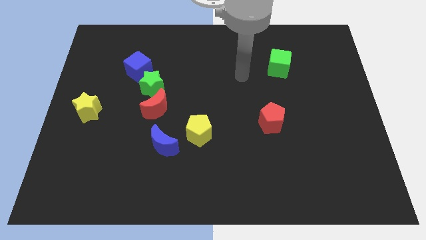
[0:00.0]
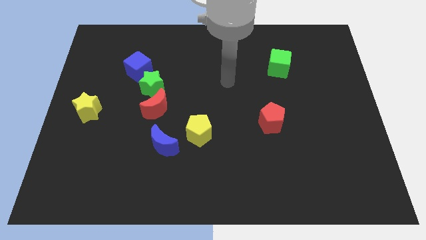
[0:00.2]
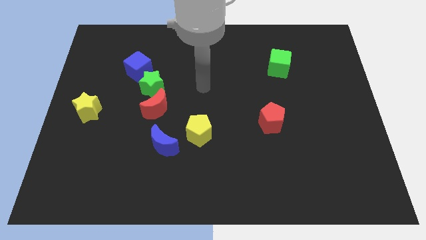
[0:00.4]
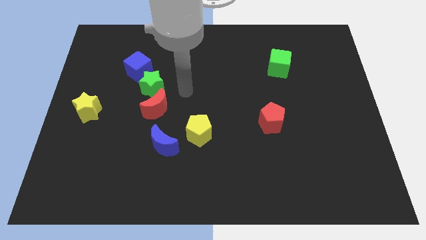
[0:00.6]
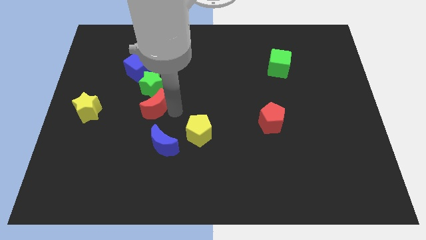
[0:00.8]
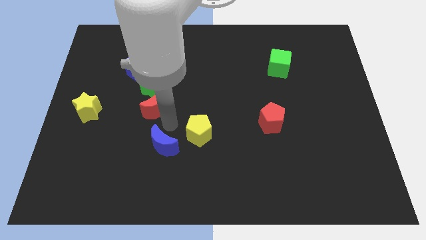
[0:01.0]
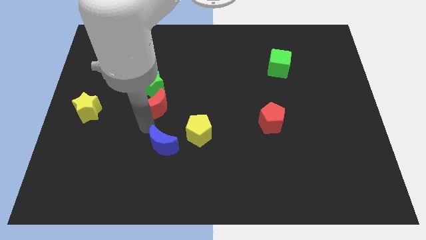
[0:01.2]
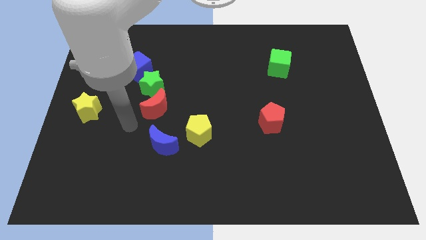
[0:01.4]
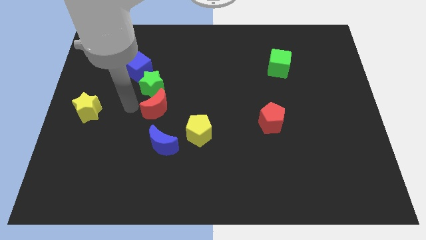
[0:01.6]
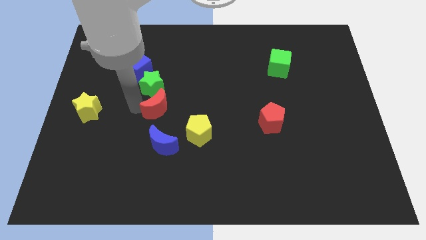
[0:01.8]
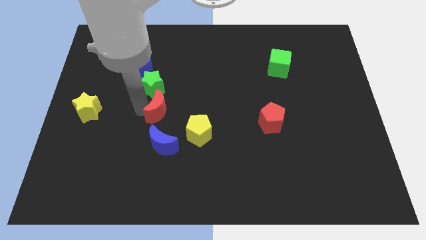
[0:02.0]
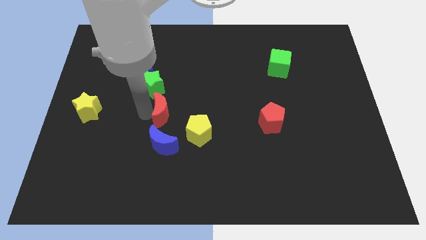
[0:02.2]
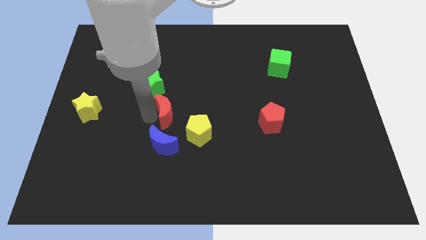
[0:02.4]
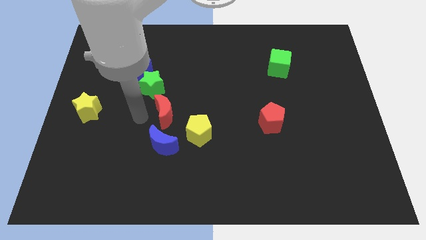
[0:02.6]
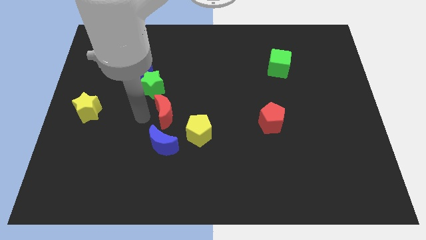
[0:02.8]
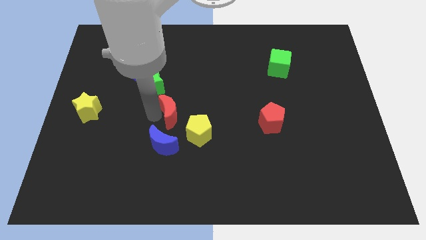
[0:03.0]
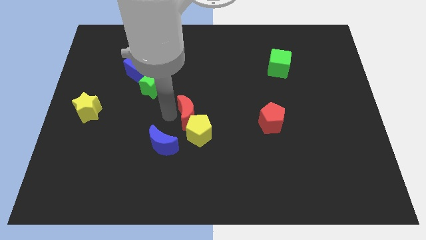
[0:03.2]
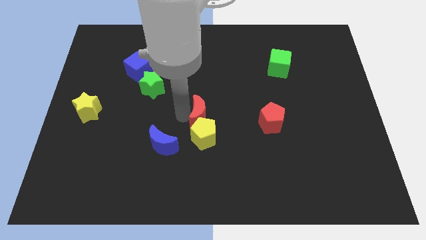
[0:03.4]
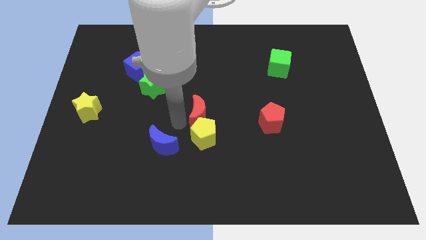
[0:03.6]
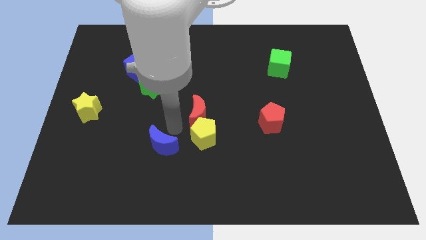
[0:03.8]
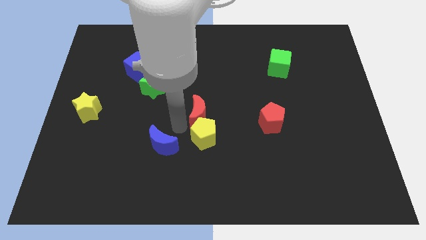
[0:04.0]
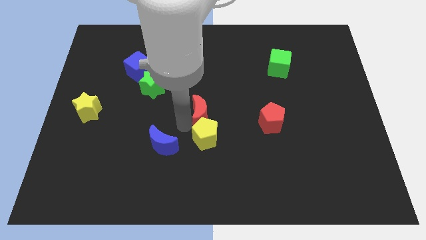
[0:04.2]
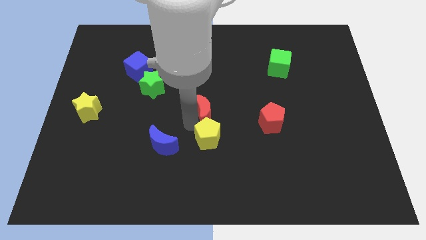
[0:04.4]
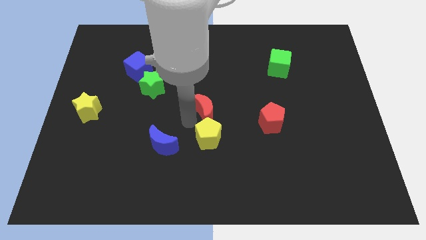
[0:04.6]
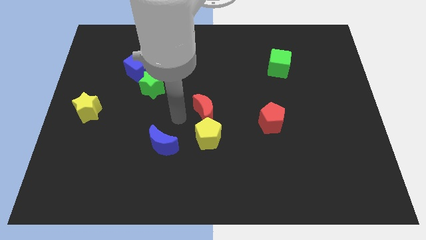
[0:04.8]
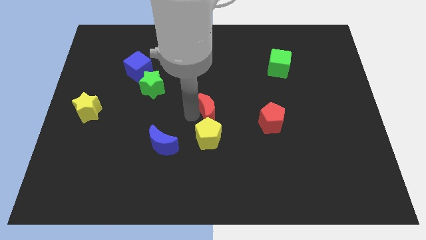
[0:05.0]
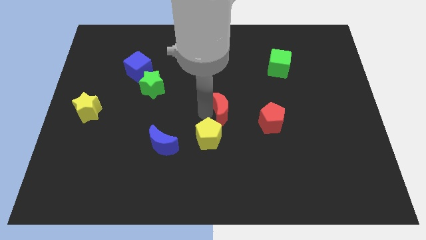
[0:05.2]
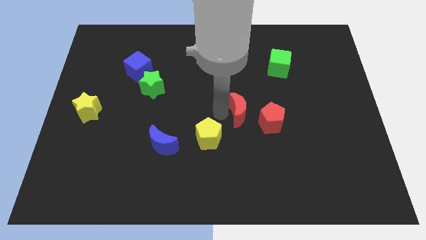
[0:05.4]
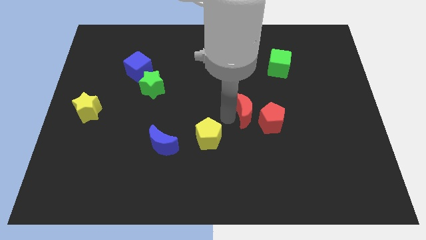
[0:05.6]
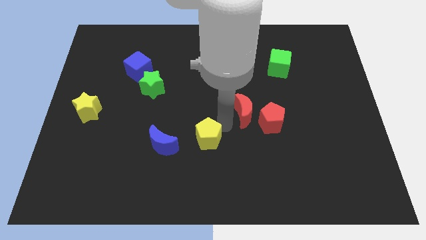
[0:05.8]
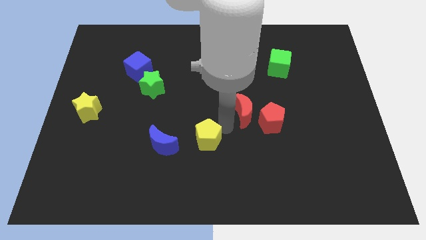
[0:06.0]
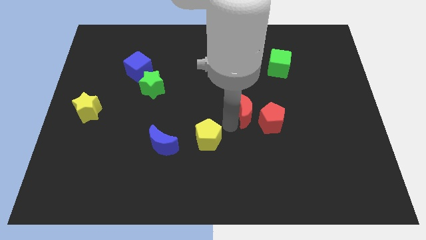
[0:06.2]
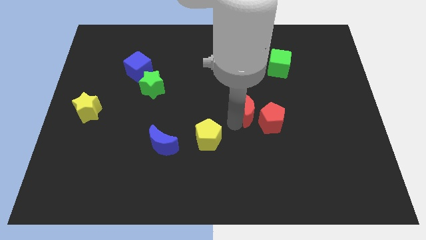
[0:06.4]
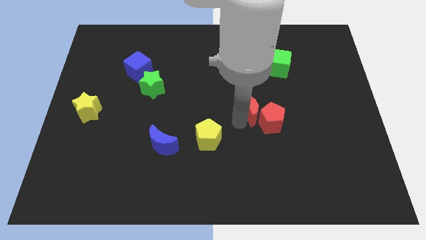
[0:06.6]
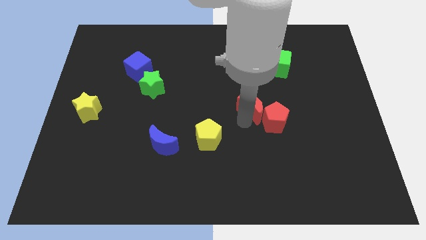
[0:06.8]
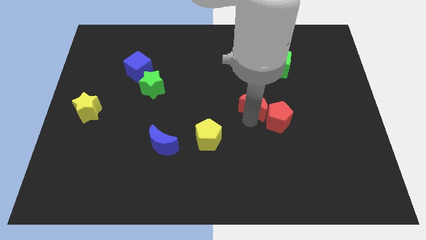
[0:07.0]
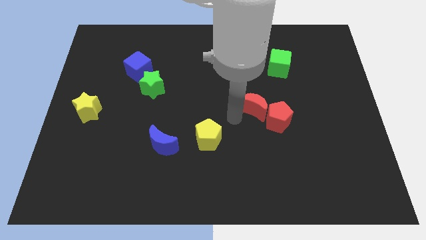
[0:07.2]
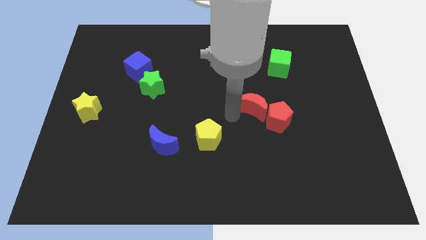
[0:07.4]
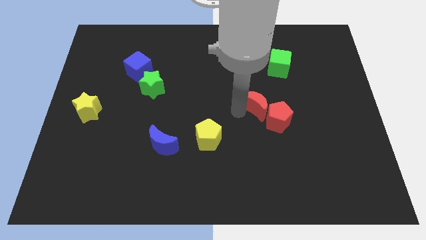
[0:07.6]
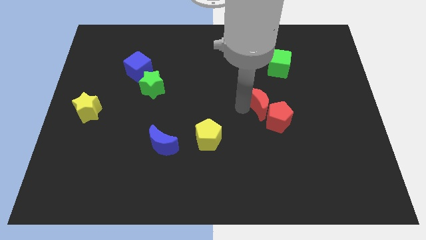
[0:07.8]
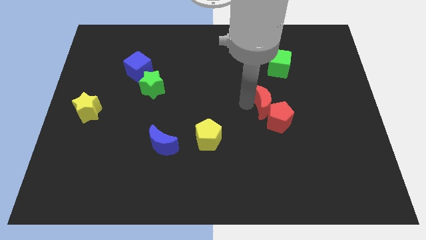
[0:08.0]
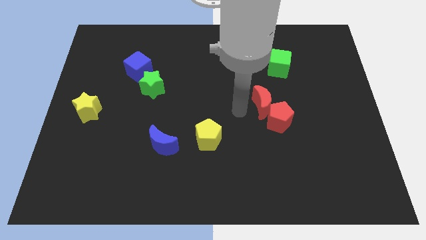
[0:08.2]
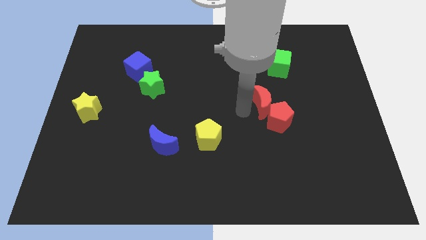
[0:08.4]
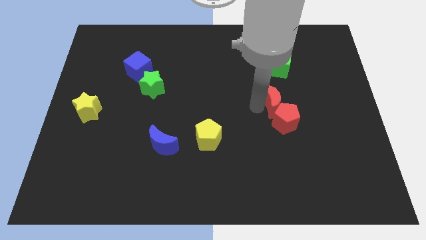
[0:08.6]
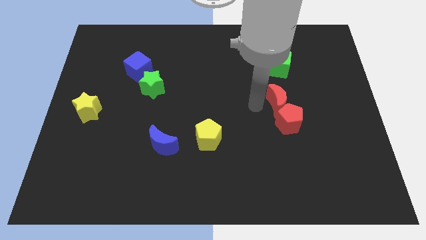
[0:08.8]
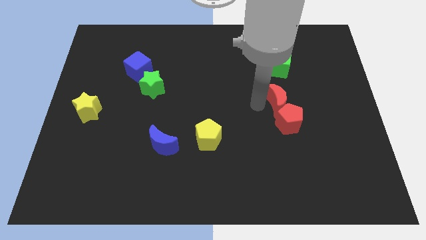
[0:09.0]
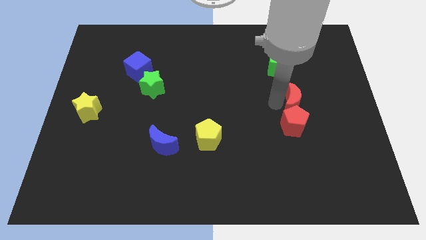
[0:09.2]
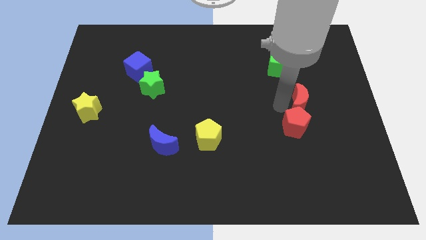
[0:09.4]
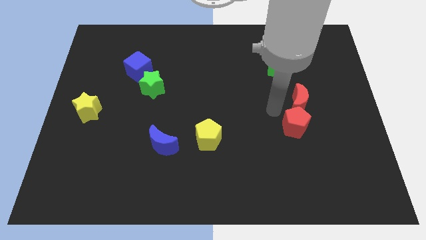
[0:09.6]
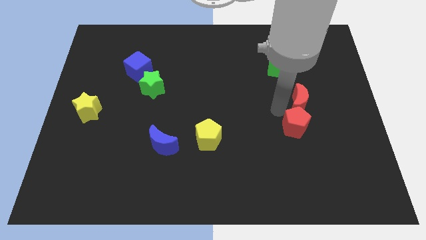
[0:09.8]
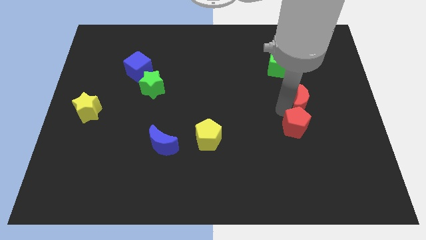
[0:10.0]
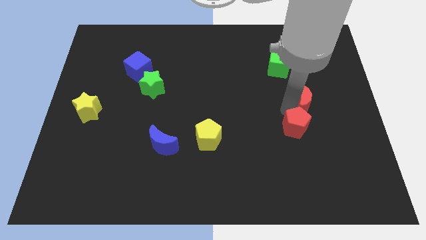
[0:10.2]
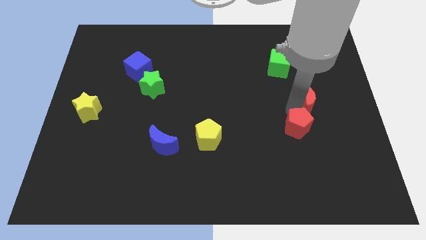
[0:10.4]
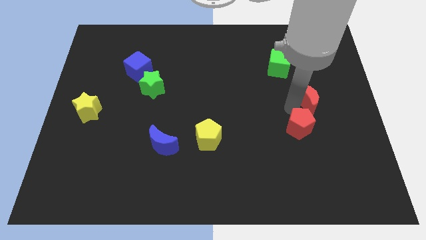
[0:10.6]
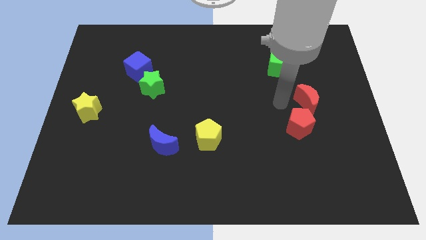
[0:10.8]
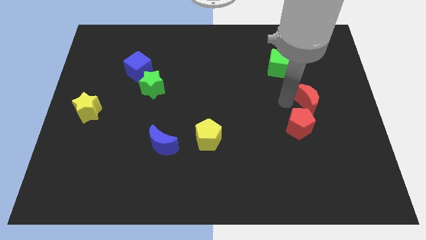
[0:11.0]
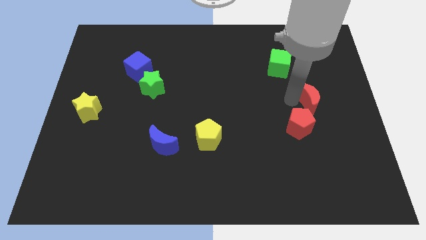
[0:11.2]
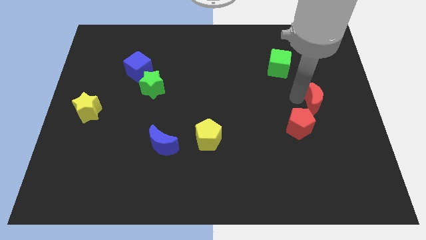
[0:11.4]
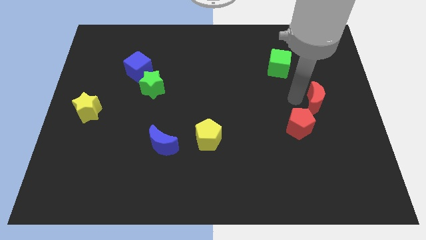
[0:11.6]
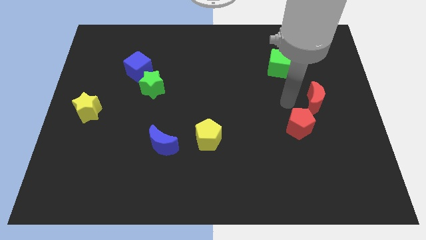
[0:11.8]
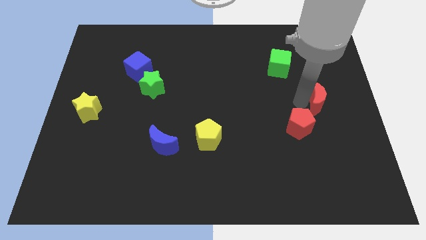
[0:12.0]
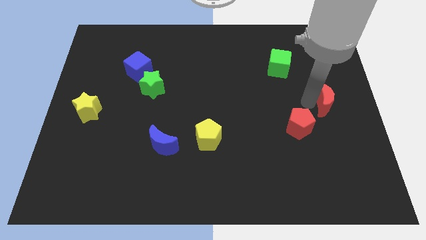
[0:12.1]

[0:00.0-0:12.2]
put the red moon to the right side of the board

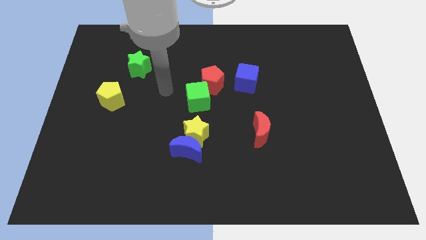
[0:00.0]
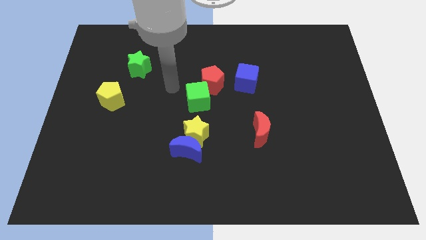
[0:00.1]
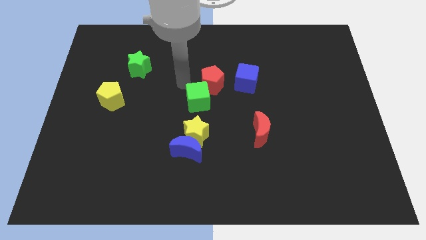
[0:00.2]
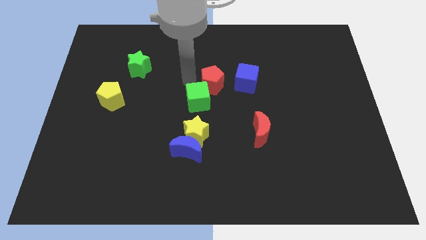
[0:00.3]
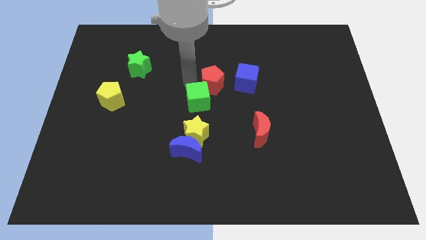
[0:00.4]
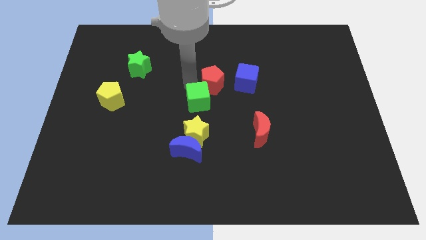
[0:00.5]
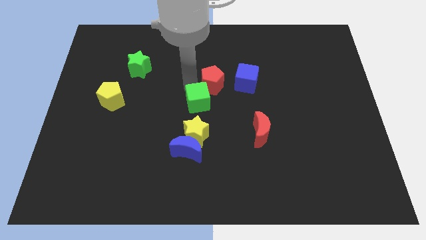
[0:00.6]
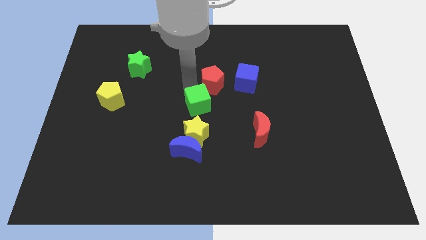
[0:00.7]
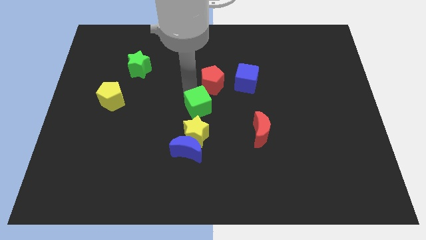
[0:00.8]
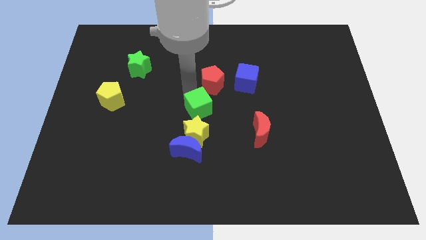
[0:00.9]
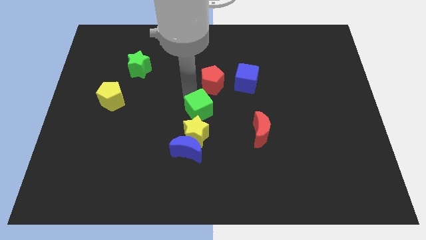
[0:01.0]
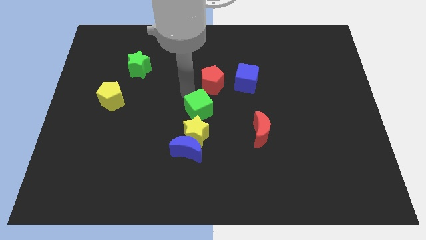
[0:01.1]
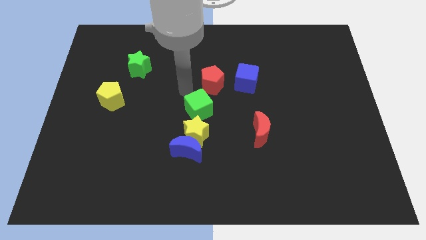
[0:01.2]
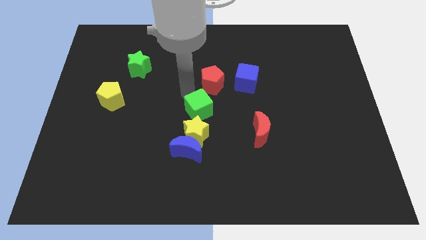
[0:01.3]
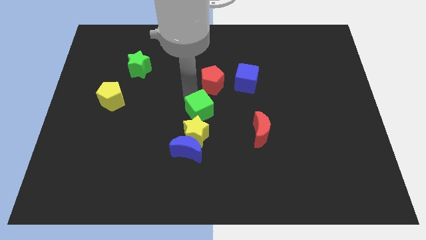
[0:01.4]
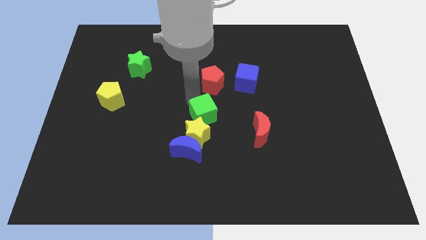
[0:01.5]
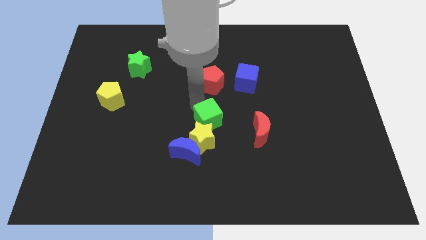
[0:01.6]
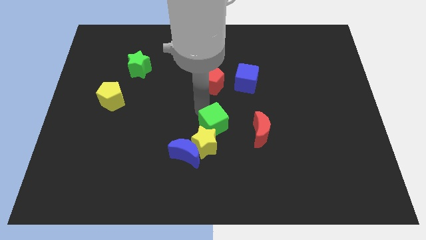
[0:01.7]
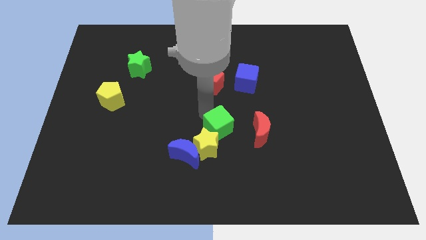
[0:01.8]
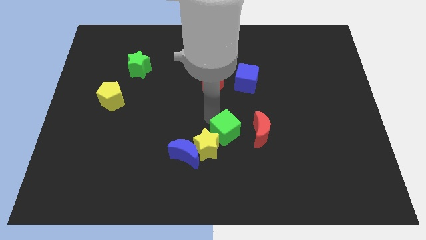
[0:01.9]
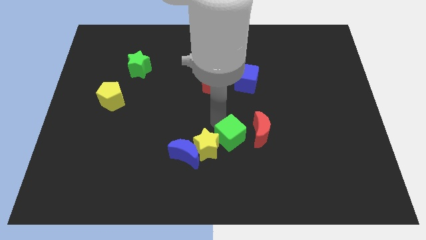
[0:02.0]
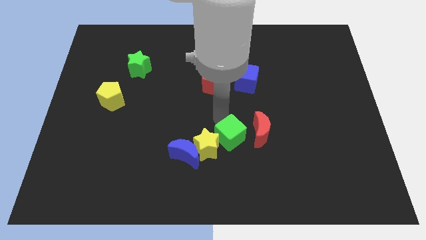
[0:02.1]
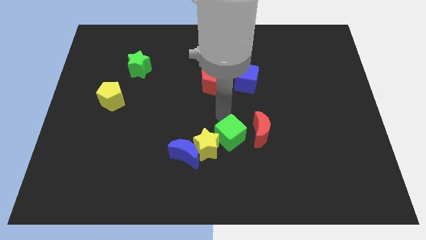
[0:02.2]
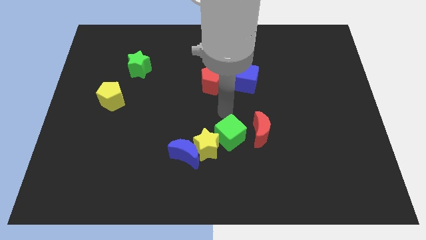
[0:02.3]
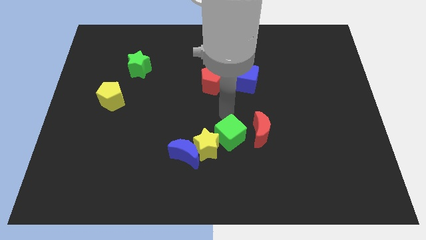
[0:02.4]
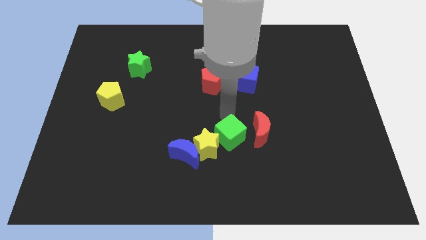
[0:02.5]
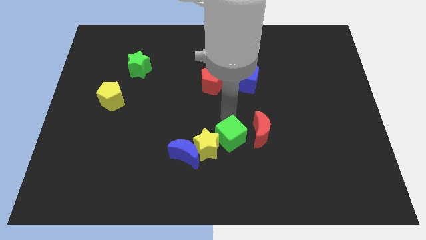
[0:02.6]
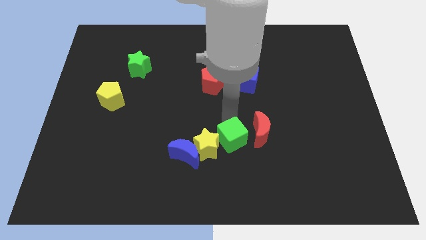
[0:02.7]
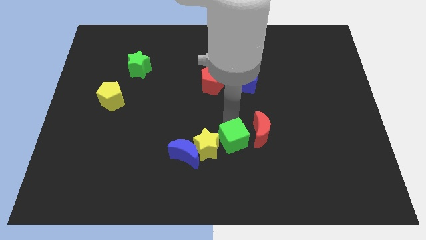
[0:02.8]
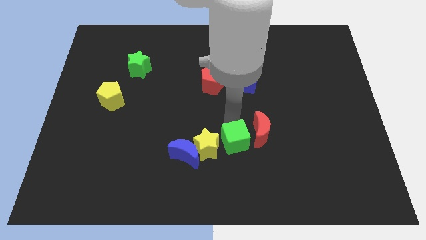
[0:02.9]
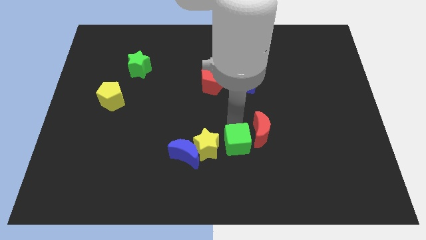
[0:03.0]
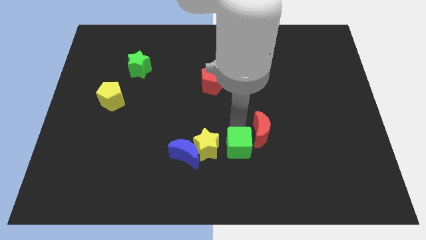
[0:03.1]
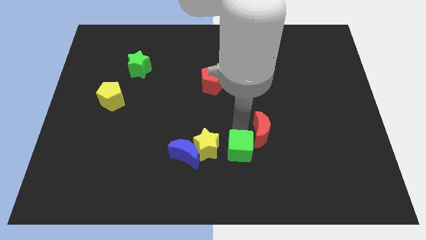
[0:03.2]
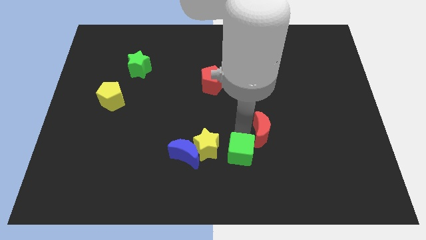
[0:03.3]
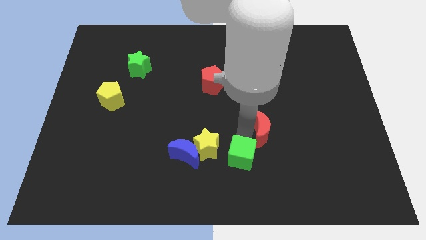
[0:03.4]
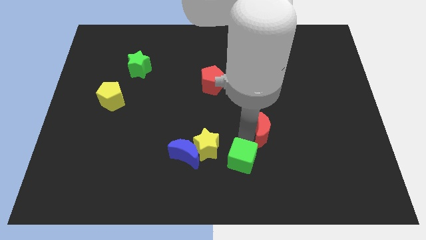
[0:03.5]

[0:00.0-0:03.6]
slide the green cube to the bottom
